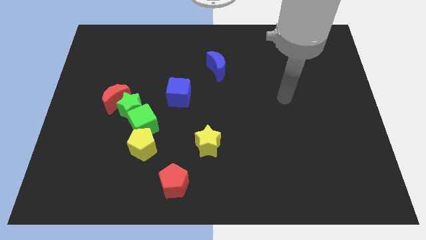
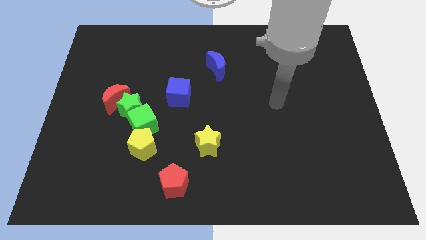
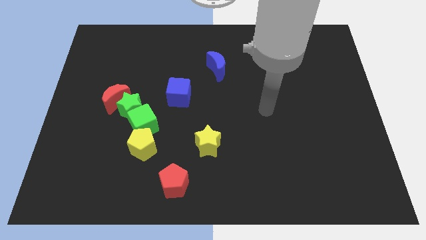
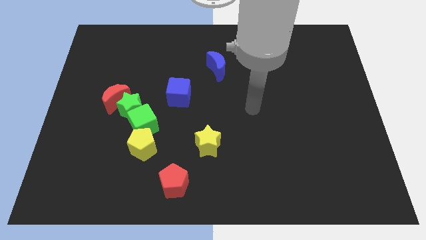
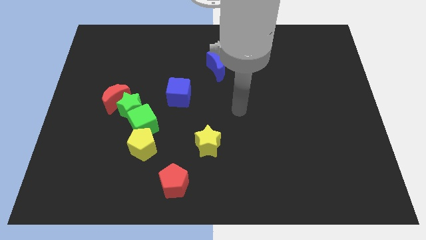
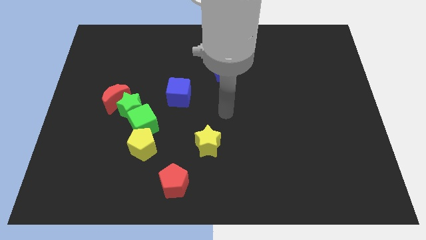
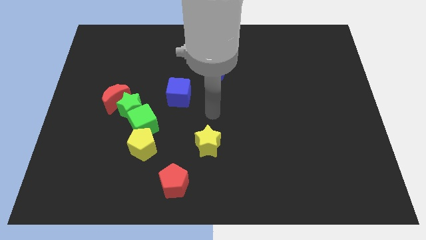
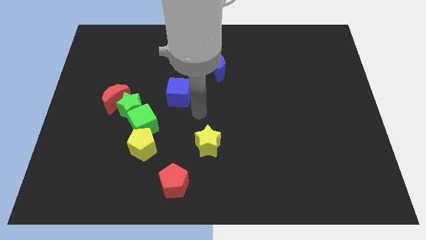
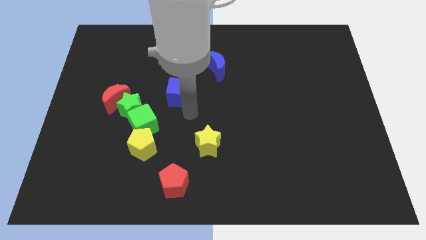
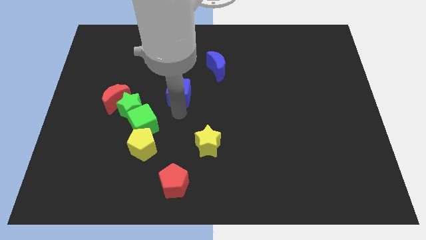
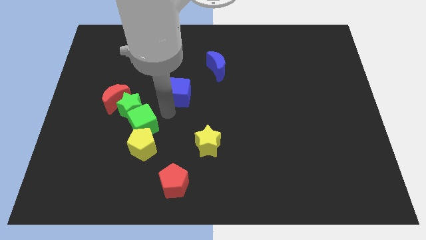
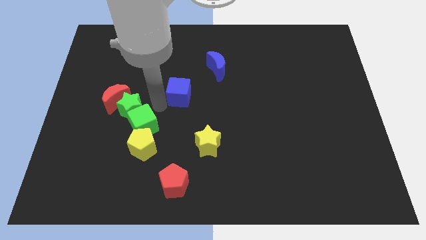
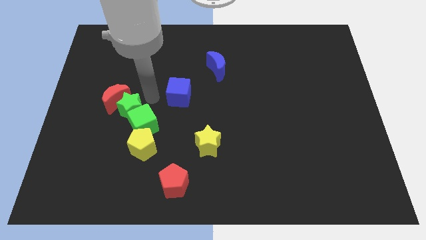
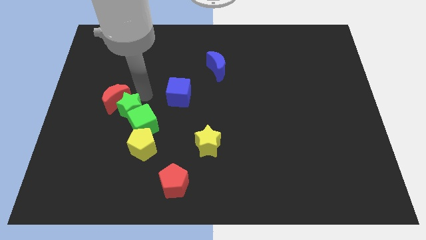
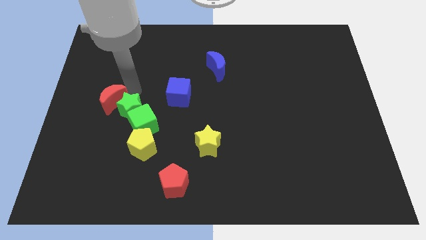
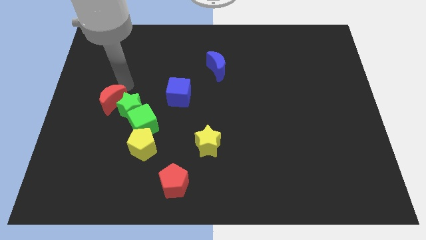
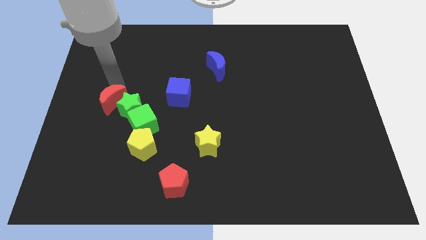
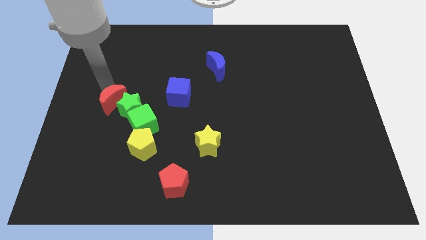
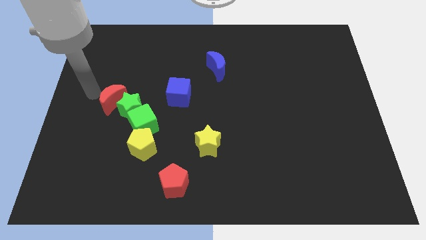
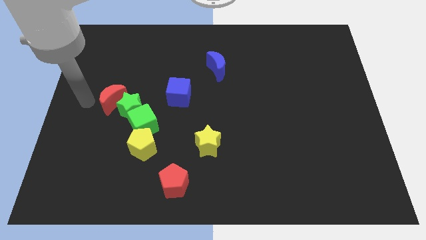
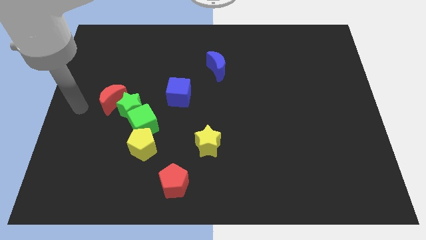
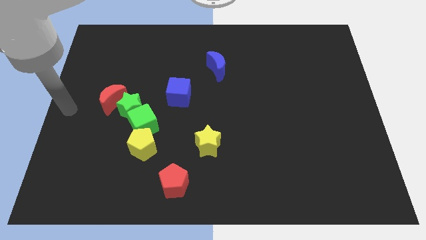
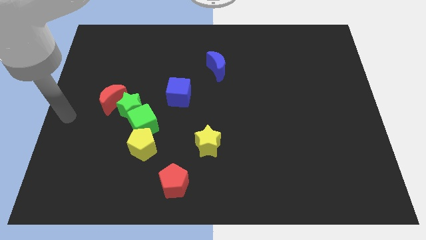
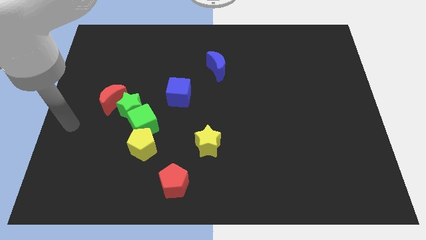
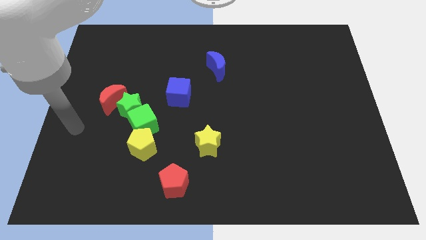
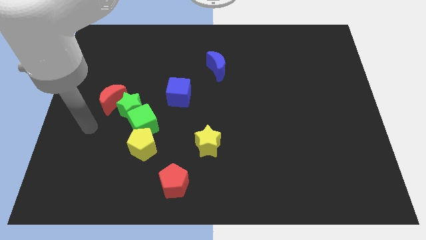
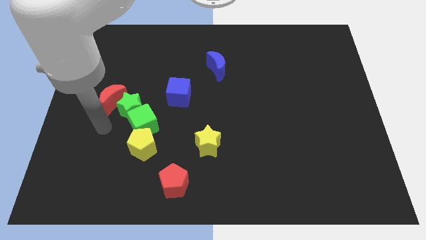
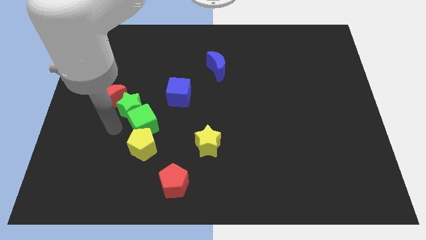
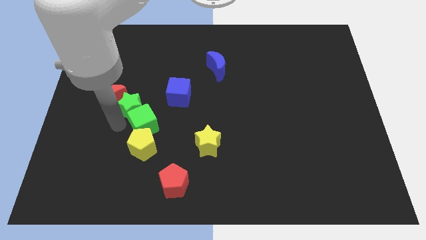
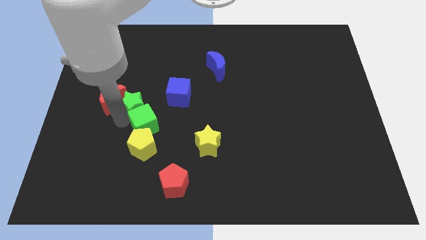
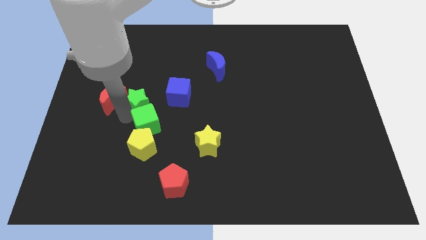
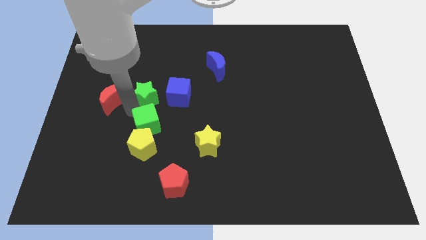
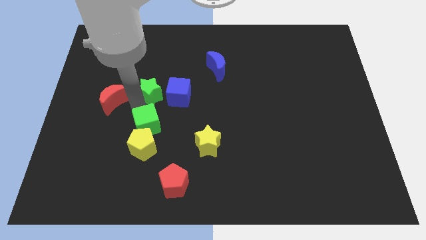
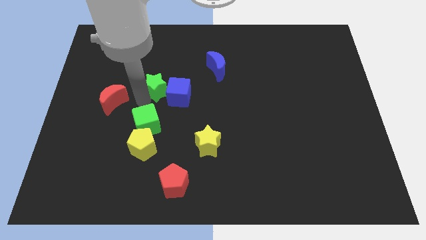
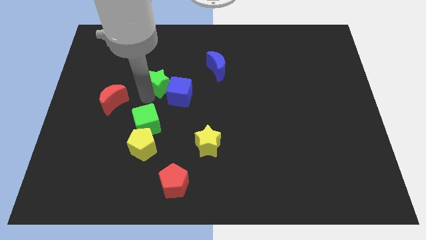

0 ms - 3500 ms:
separate the green star from the red moon and green cube

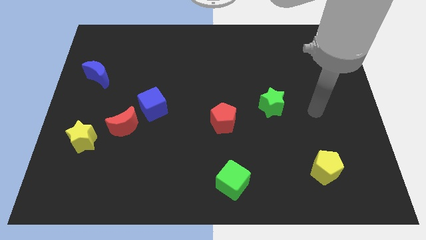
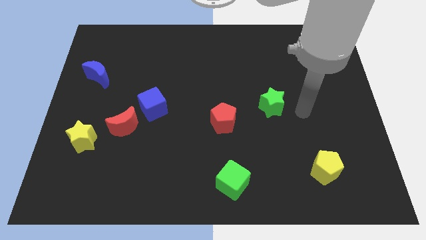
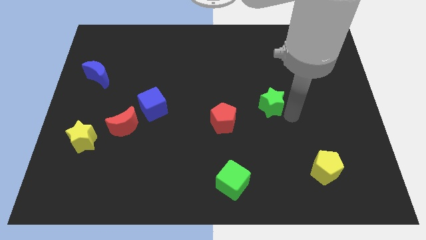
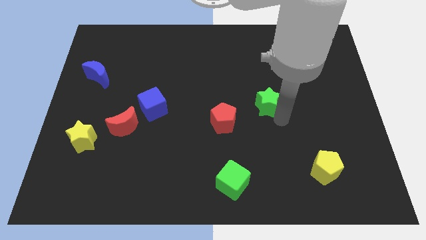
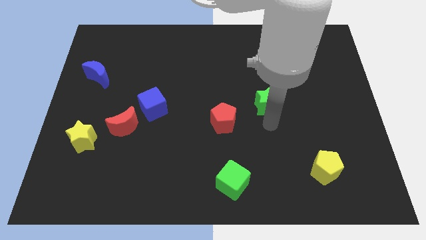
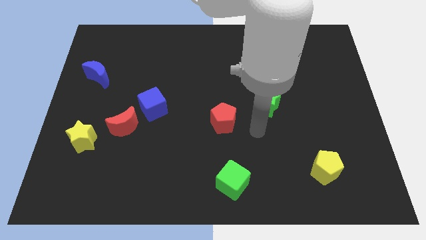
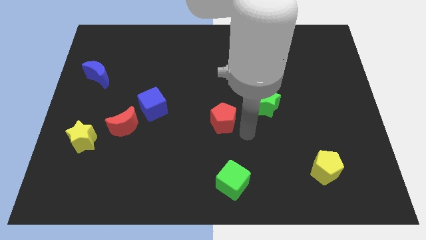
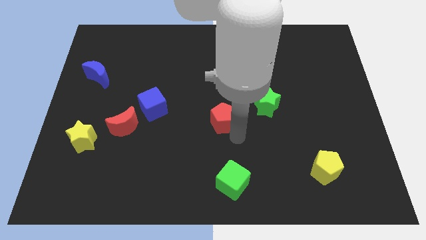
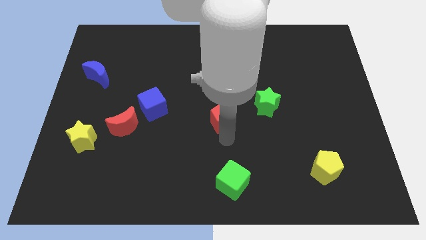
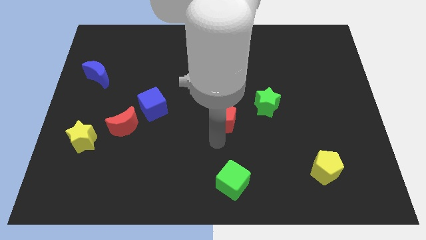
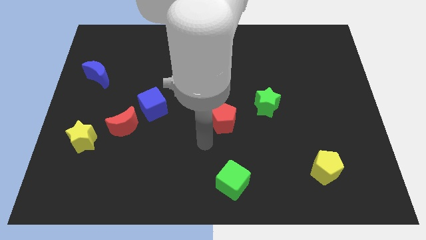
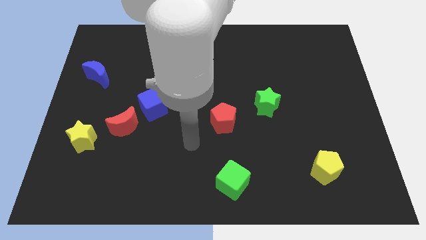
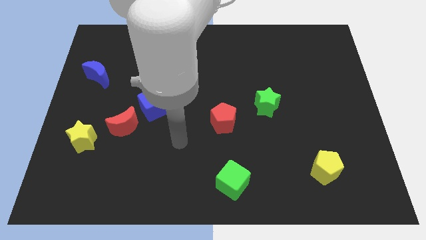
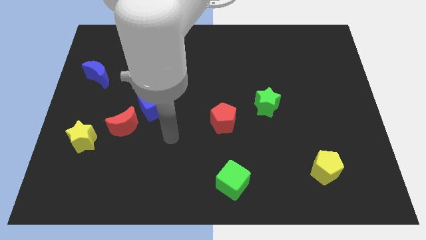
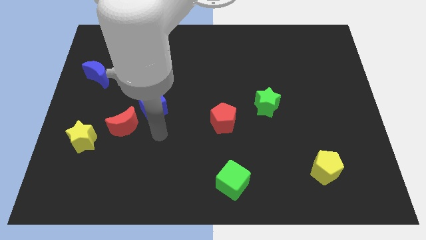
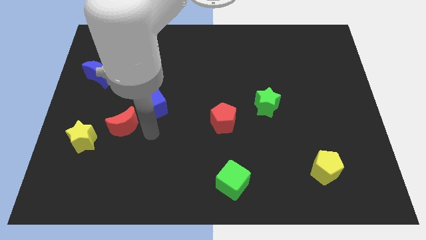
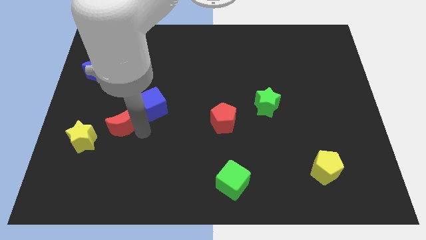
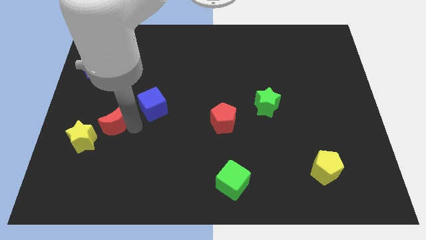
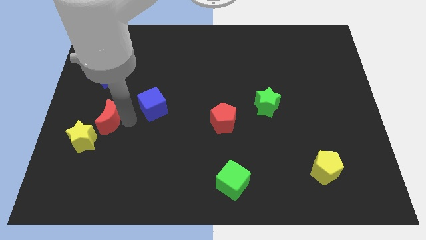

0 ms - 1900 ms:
pull the blue cube apart from the red moon

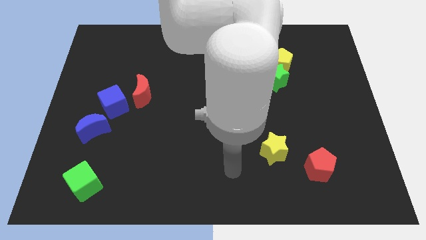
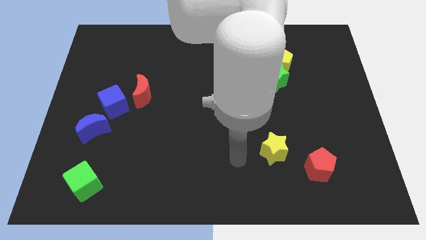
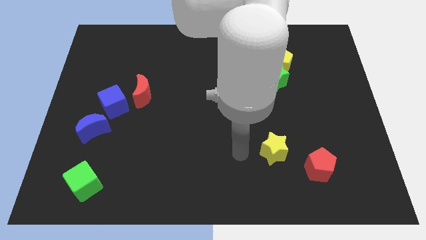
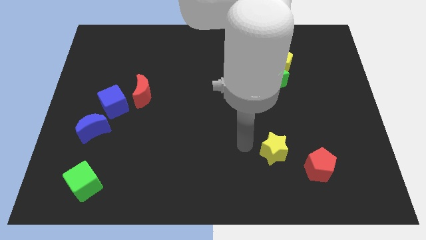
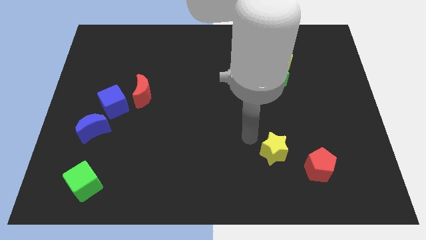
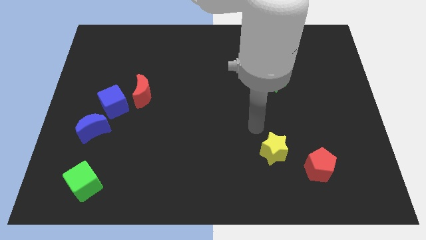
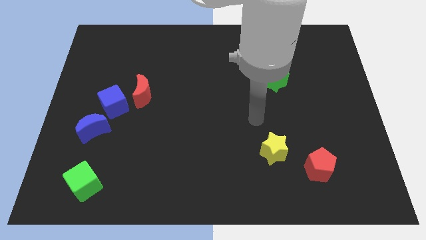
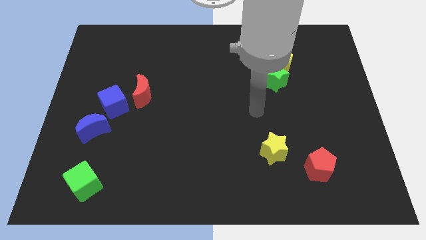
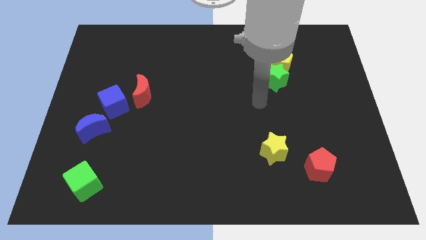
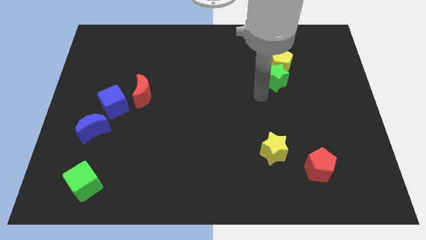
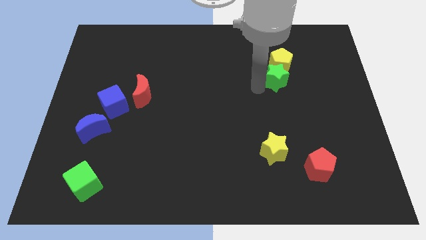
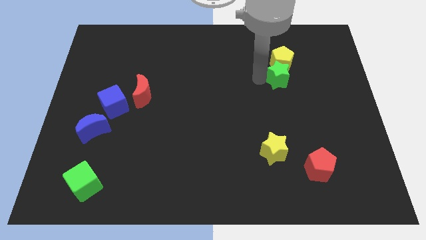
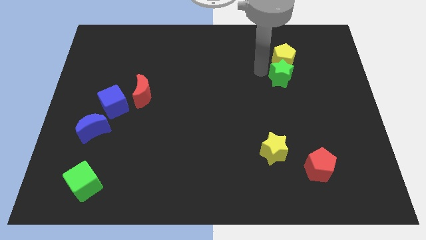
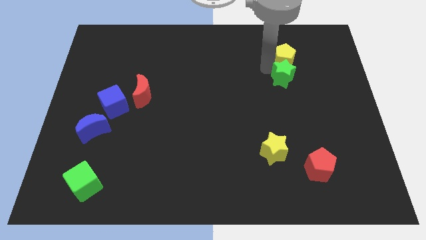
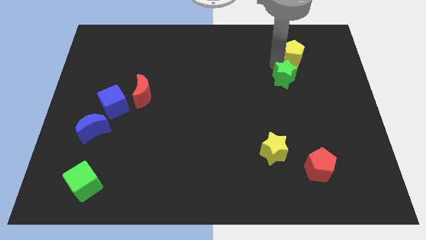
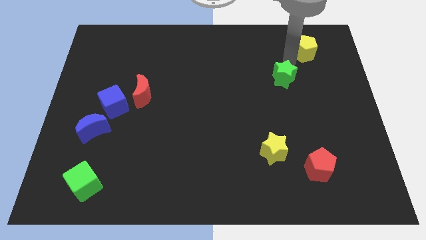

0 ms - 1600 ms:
move the green star away from the yellow pentagon

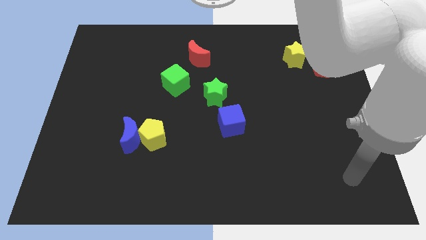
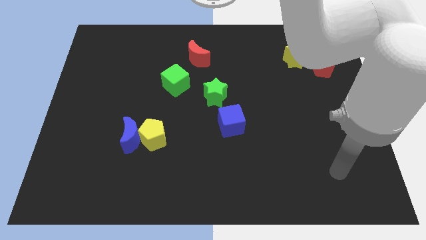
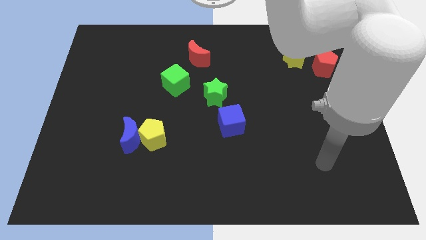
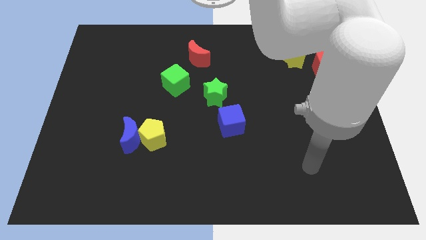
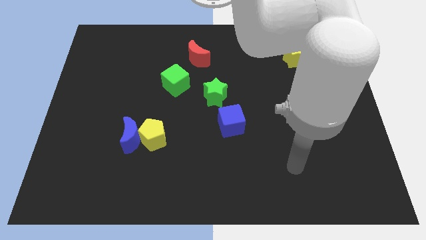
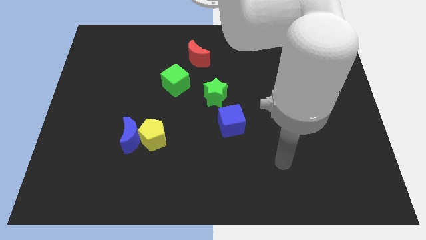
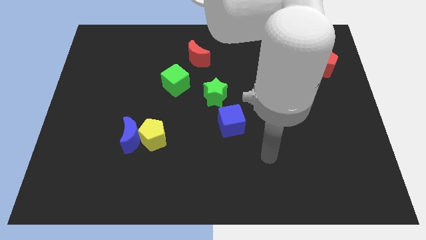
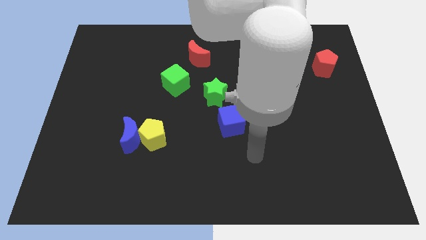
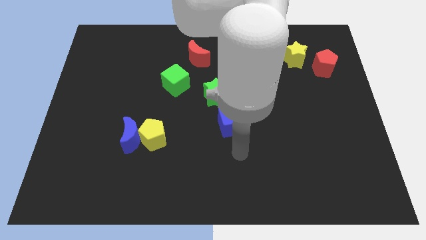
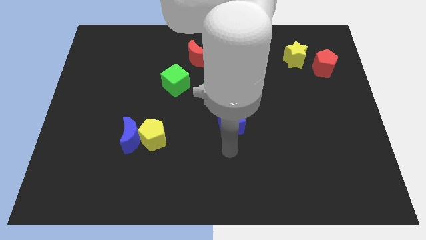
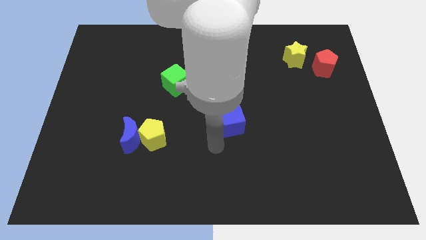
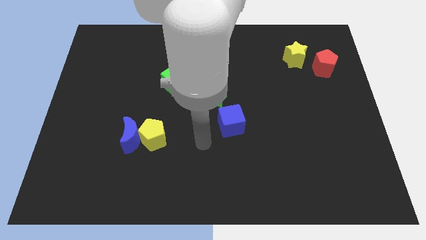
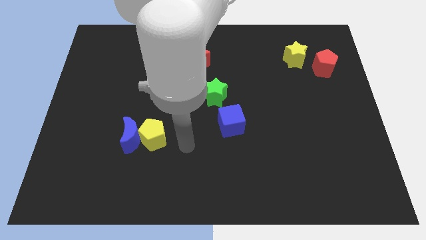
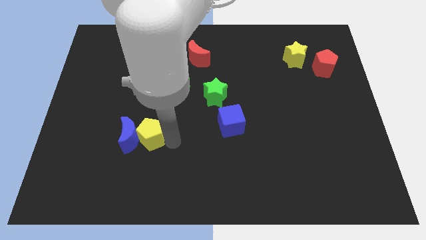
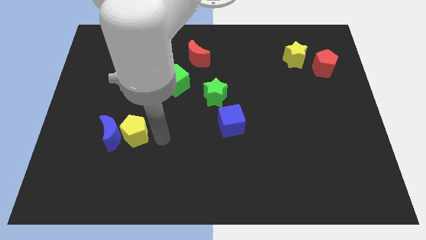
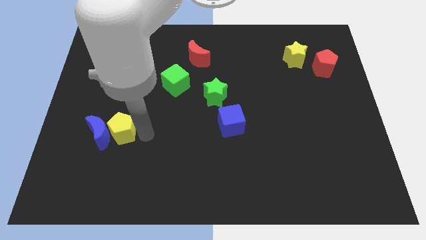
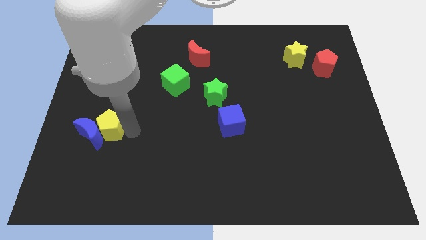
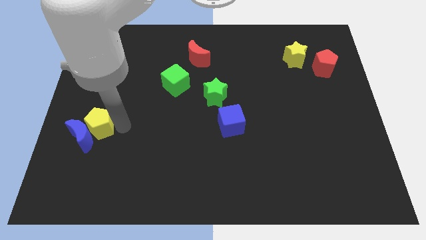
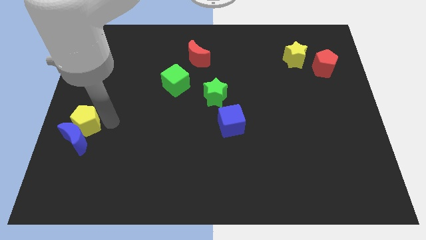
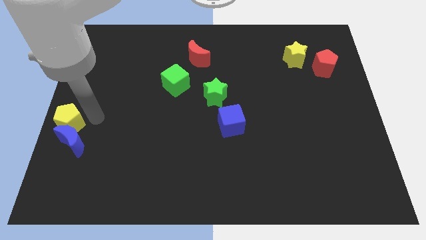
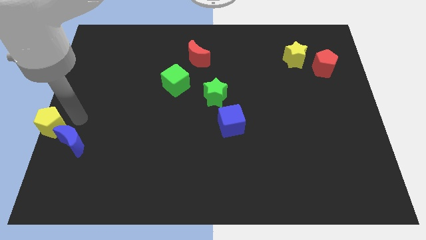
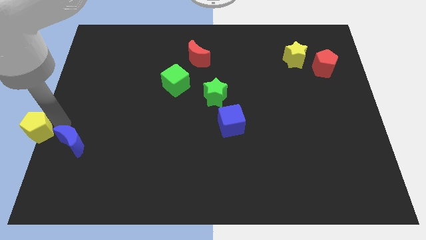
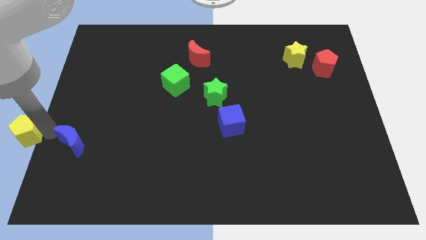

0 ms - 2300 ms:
move the blue moon away from the yellow pentagon

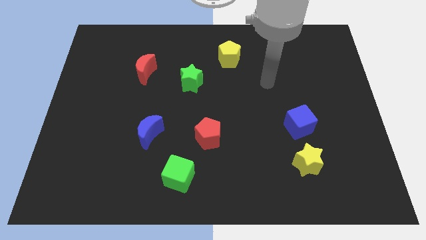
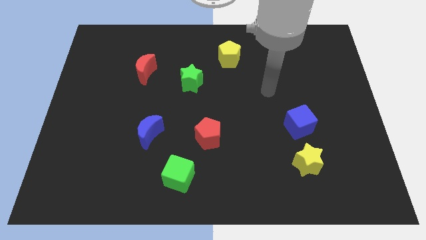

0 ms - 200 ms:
pull the blue cube apart from the yellow star
